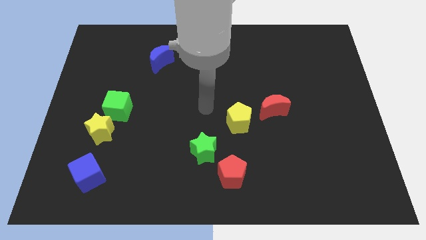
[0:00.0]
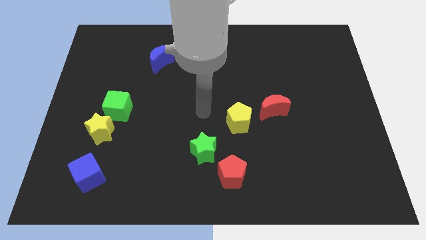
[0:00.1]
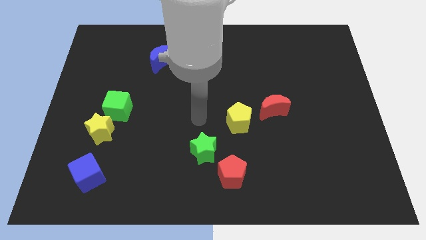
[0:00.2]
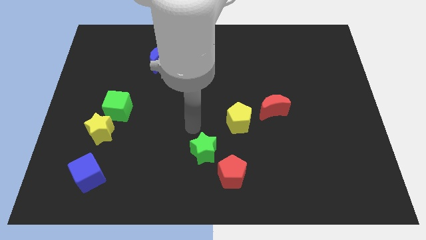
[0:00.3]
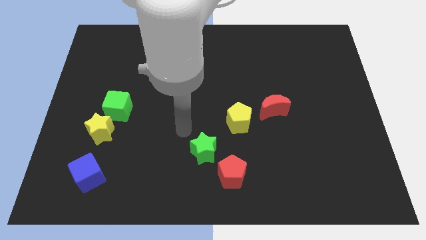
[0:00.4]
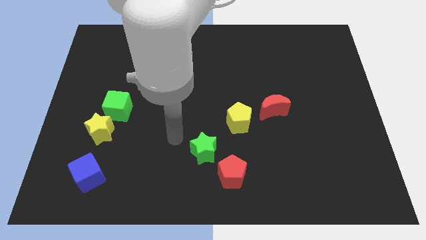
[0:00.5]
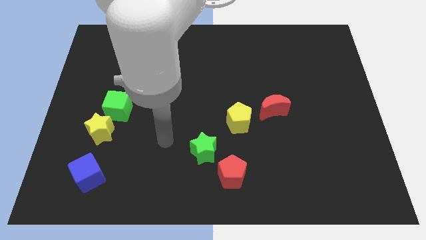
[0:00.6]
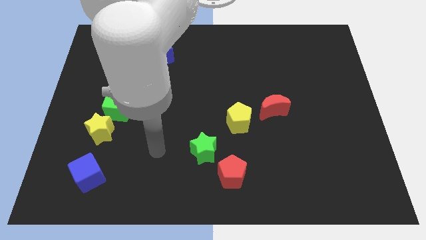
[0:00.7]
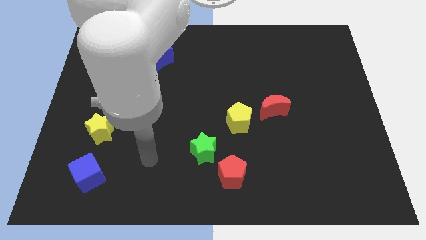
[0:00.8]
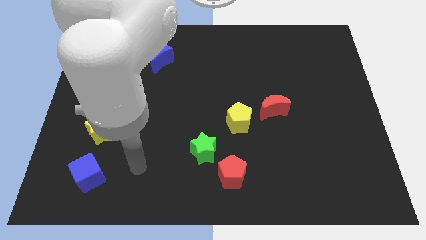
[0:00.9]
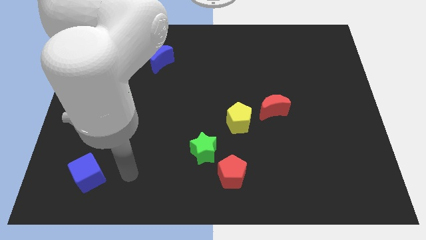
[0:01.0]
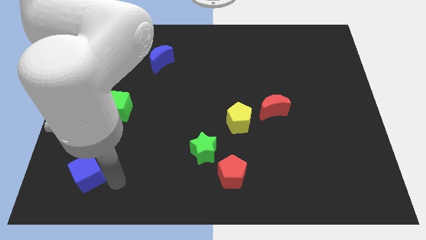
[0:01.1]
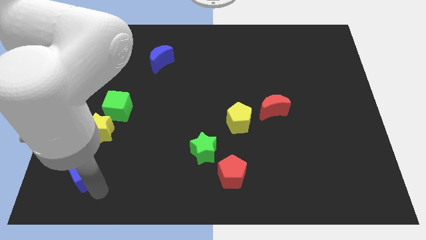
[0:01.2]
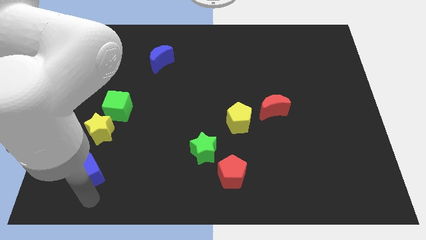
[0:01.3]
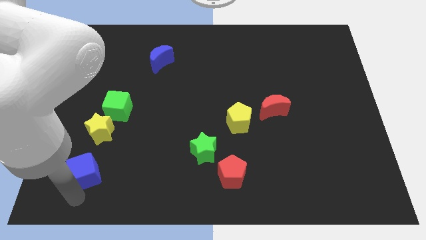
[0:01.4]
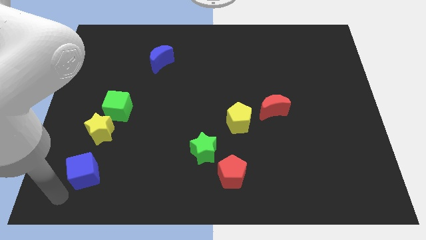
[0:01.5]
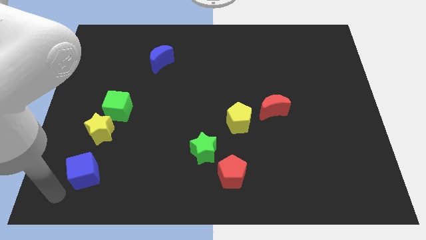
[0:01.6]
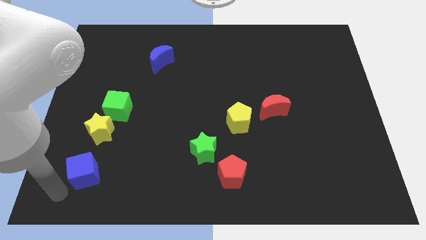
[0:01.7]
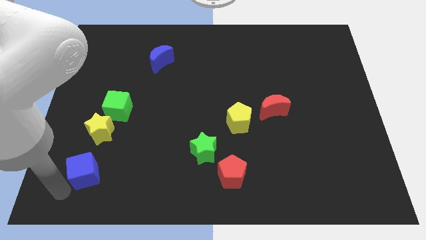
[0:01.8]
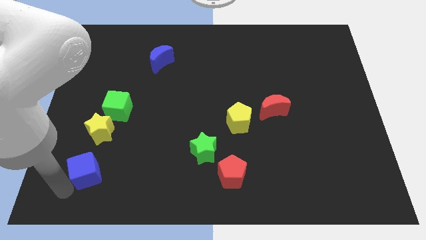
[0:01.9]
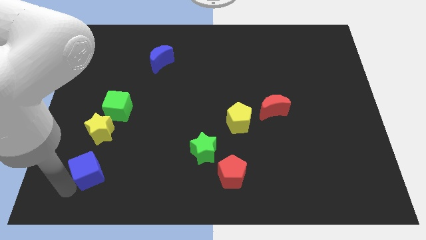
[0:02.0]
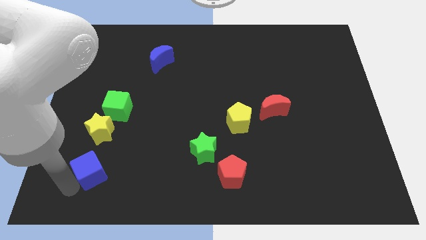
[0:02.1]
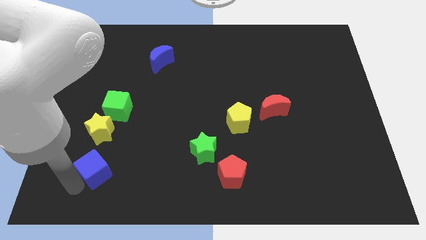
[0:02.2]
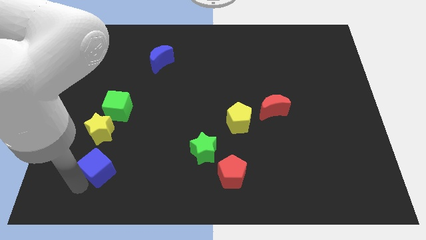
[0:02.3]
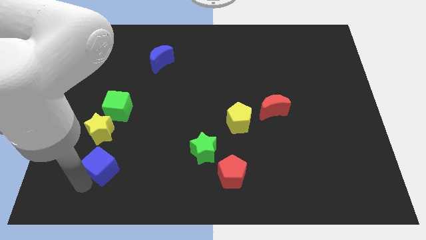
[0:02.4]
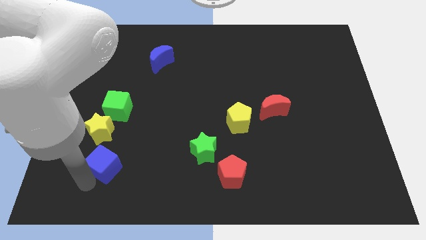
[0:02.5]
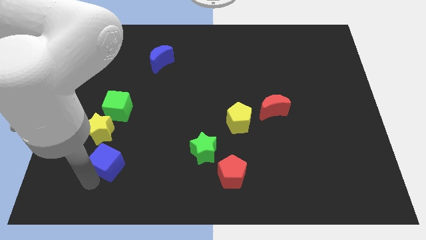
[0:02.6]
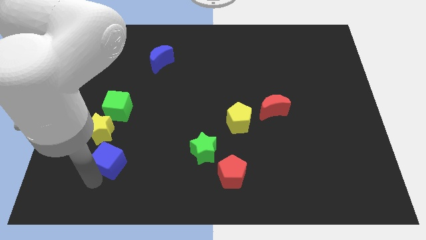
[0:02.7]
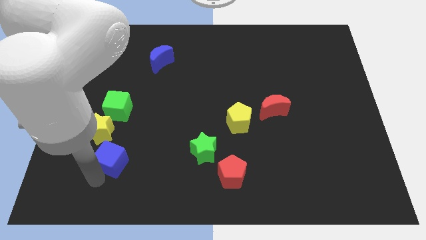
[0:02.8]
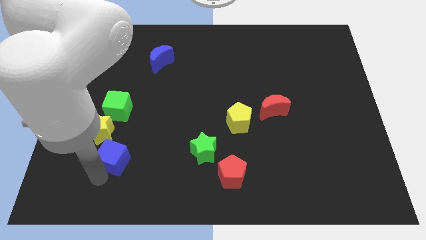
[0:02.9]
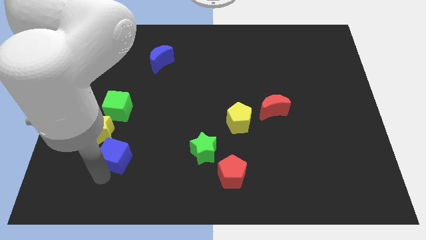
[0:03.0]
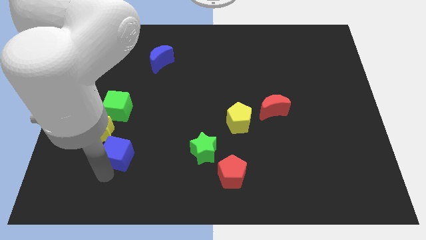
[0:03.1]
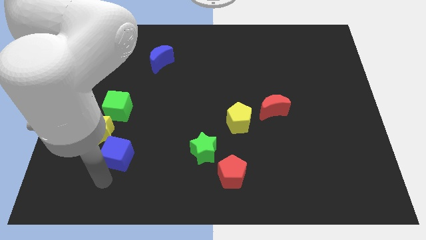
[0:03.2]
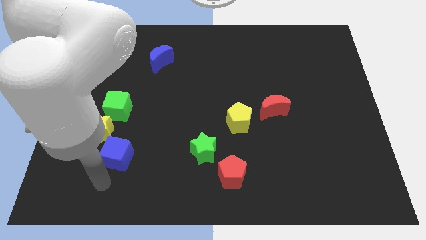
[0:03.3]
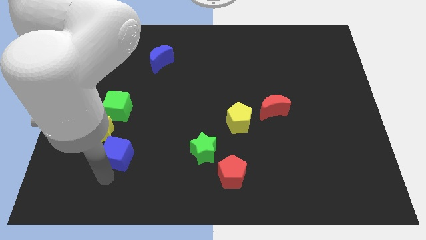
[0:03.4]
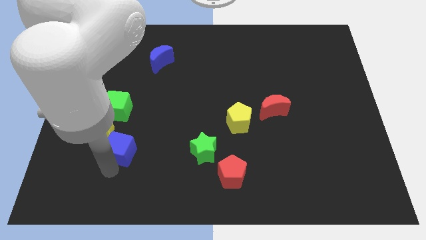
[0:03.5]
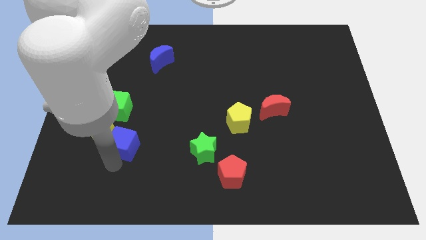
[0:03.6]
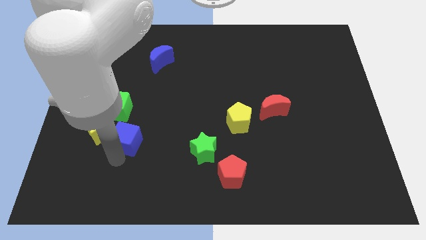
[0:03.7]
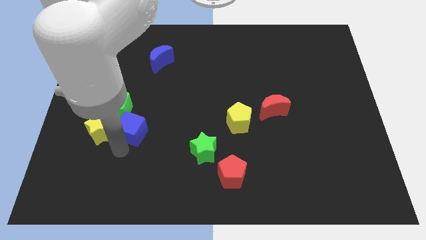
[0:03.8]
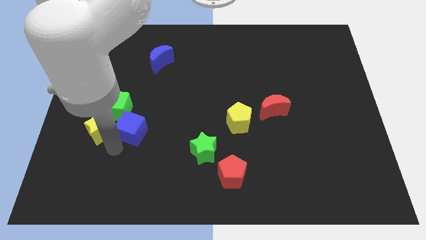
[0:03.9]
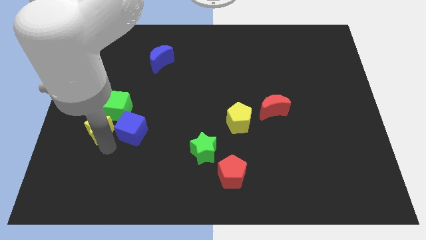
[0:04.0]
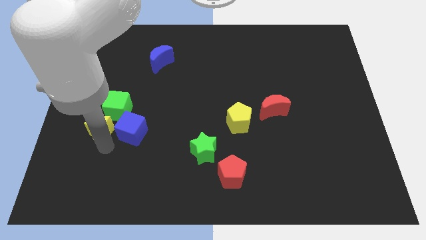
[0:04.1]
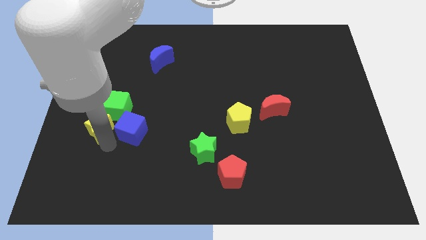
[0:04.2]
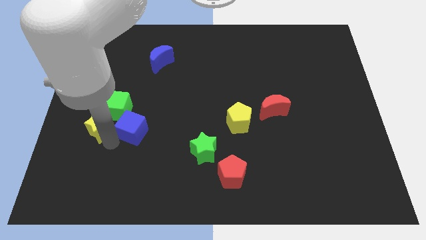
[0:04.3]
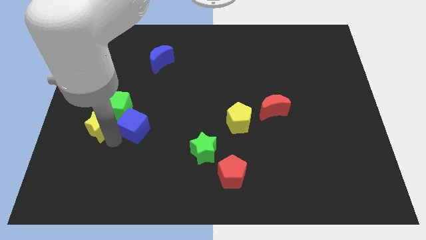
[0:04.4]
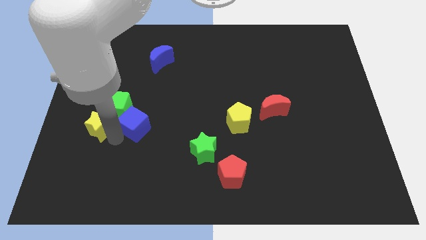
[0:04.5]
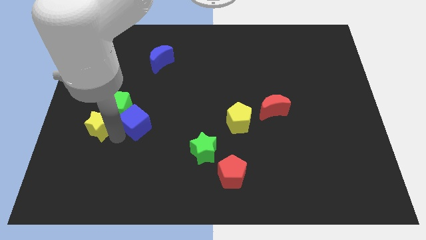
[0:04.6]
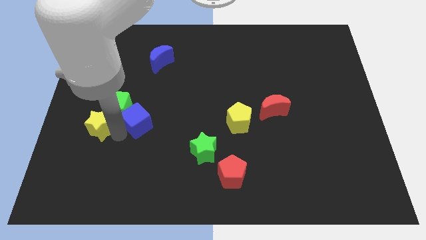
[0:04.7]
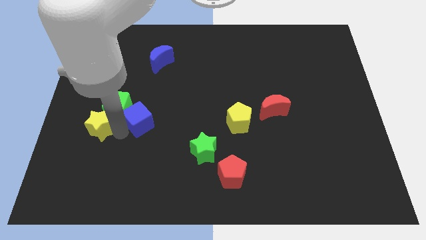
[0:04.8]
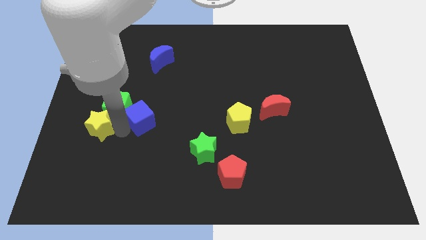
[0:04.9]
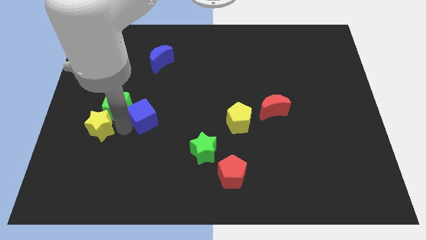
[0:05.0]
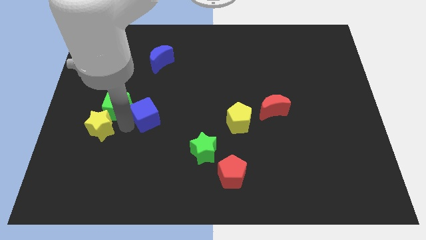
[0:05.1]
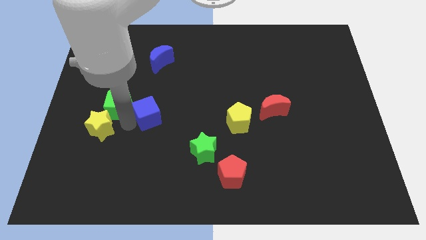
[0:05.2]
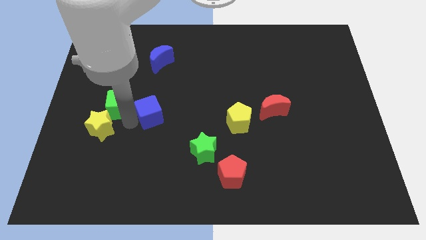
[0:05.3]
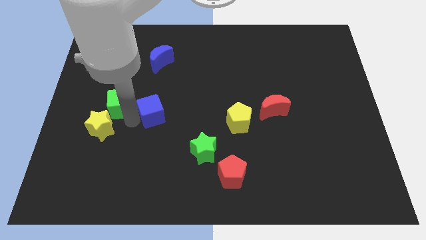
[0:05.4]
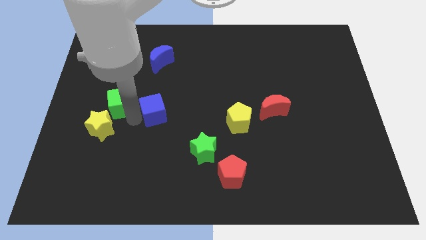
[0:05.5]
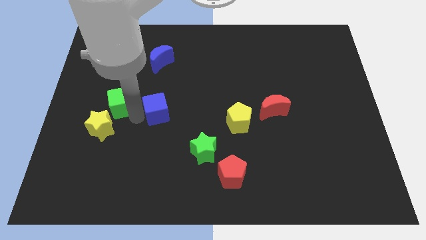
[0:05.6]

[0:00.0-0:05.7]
slide the blue cube diagonally up and right

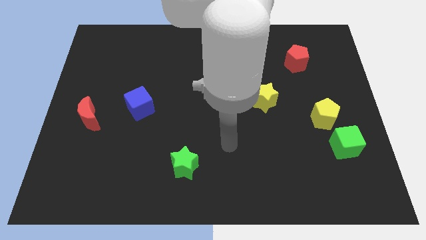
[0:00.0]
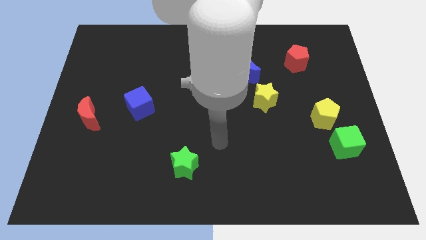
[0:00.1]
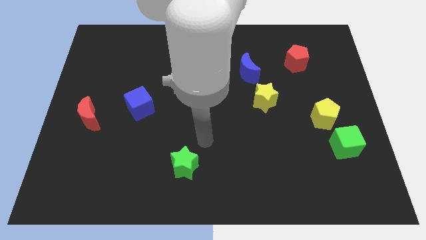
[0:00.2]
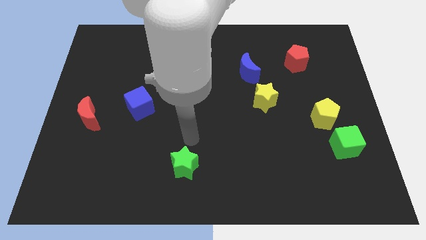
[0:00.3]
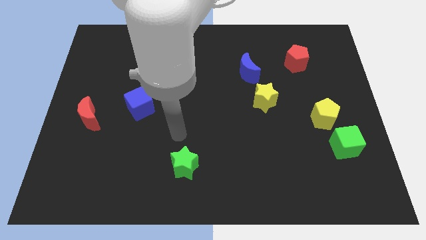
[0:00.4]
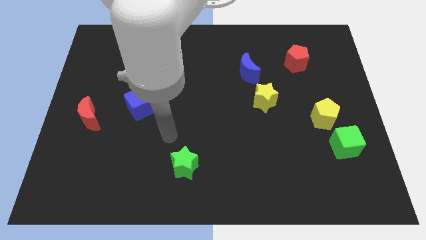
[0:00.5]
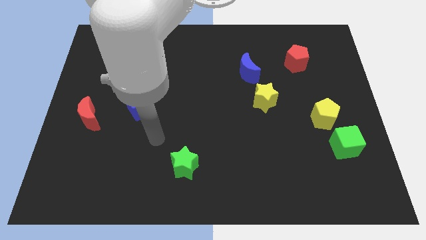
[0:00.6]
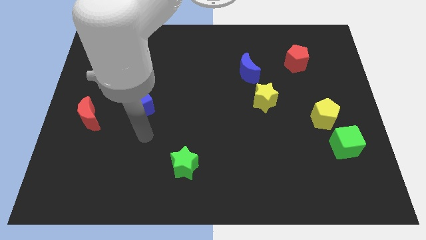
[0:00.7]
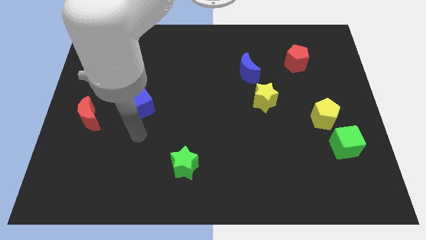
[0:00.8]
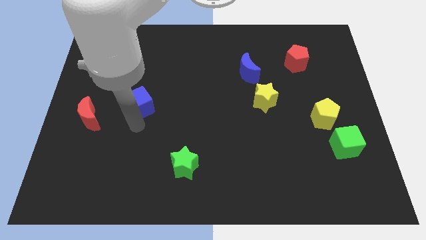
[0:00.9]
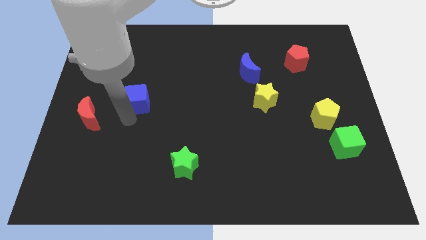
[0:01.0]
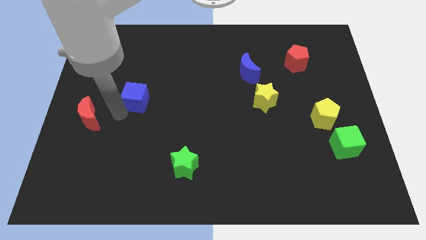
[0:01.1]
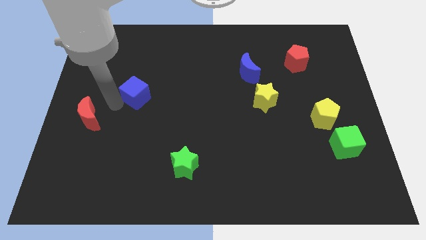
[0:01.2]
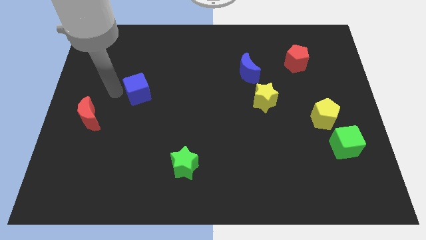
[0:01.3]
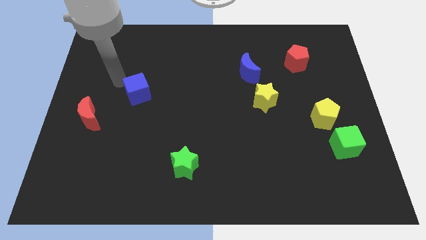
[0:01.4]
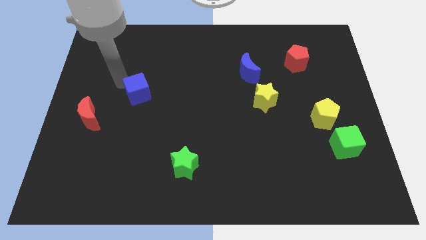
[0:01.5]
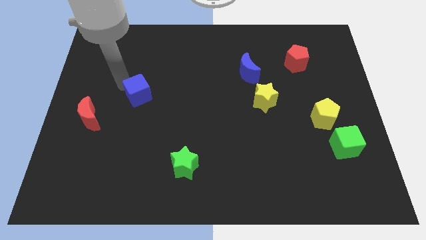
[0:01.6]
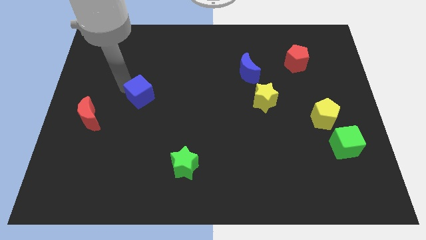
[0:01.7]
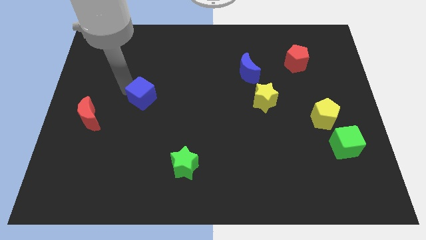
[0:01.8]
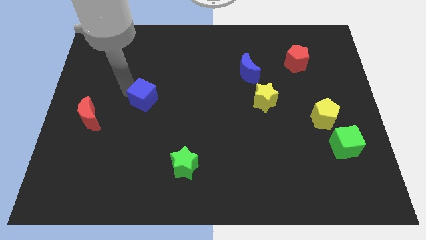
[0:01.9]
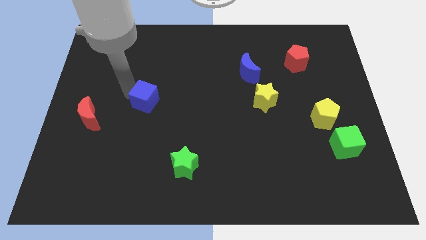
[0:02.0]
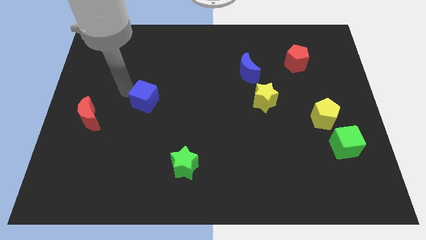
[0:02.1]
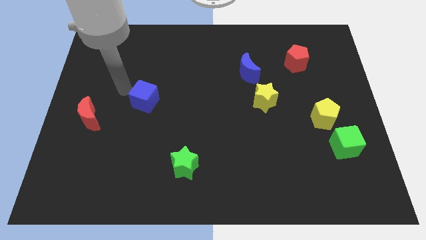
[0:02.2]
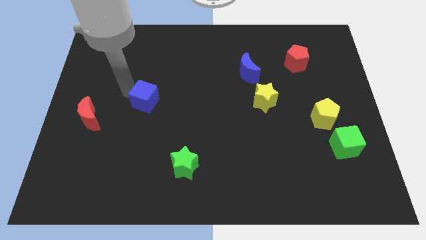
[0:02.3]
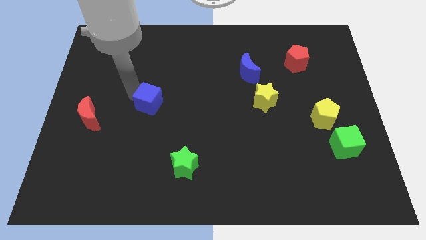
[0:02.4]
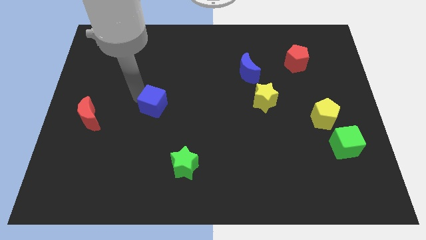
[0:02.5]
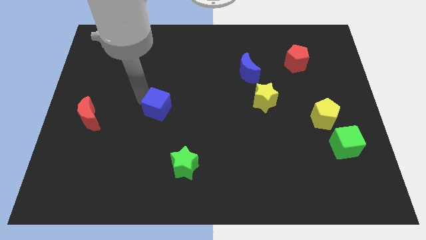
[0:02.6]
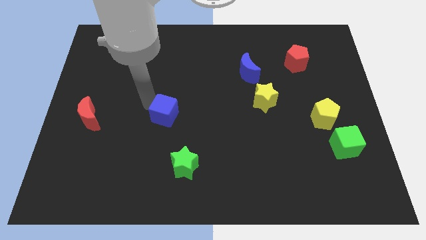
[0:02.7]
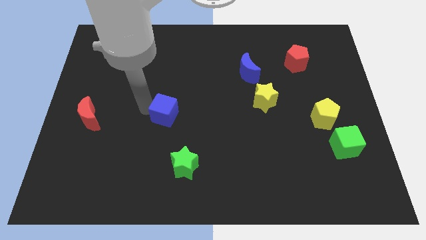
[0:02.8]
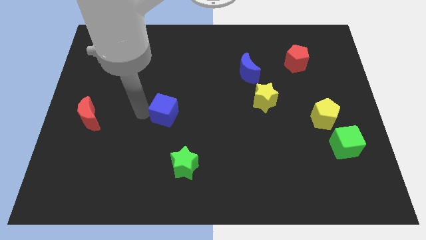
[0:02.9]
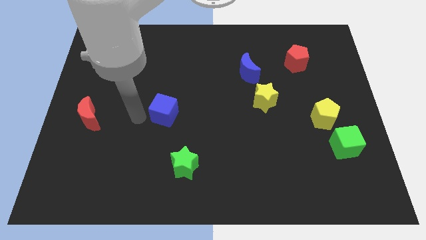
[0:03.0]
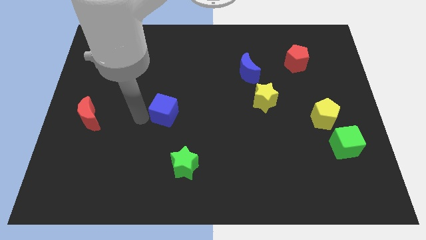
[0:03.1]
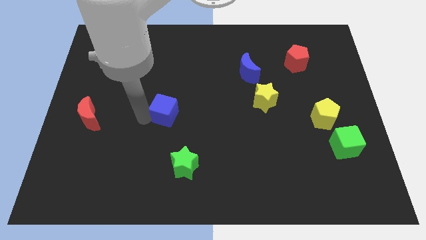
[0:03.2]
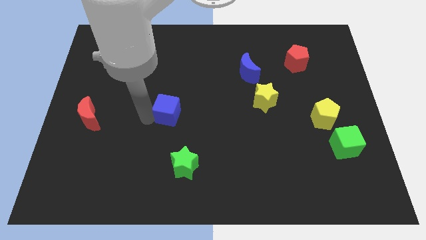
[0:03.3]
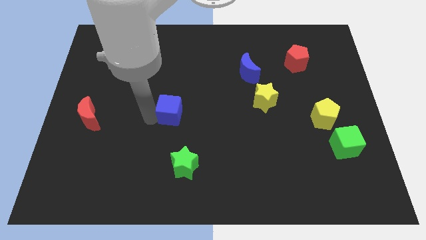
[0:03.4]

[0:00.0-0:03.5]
slightly move the blue cube to the right
